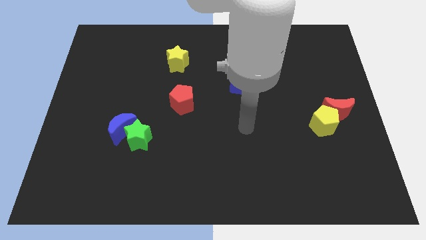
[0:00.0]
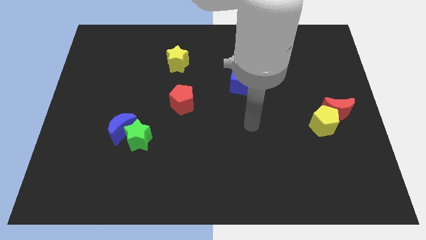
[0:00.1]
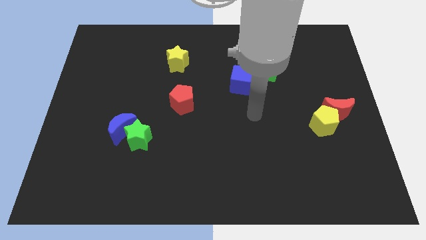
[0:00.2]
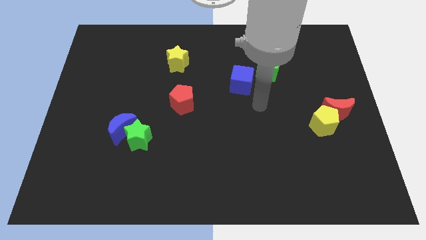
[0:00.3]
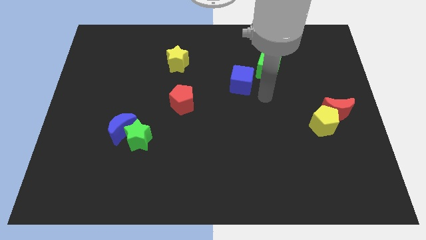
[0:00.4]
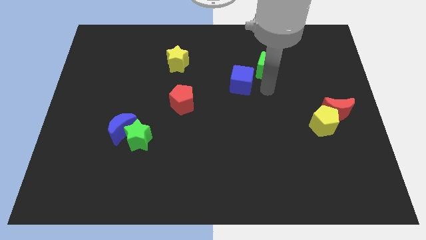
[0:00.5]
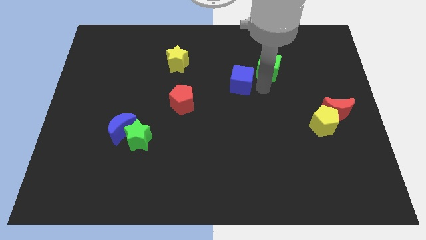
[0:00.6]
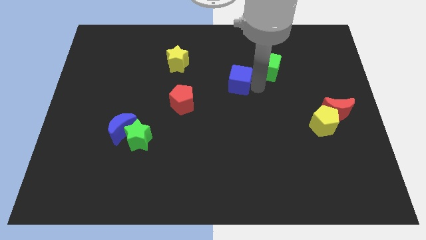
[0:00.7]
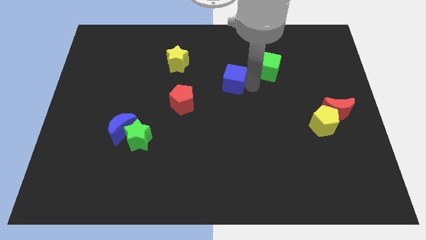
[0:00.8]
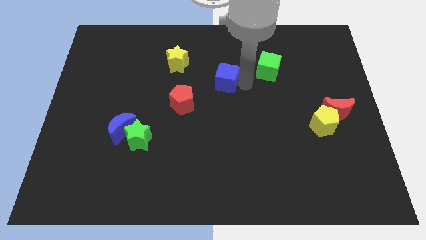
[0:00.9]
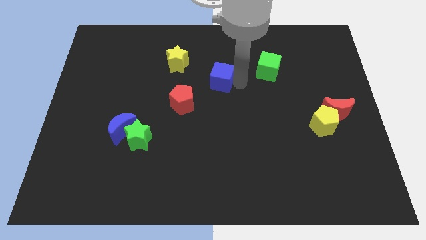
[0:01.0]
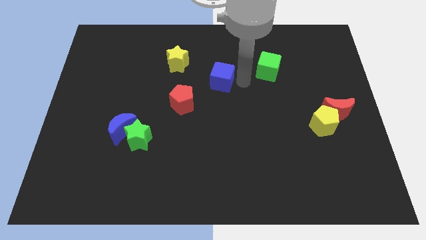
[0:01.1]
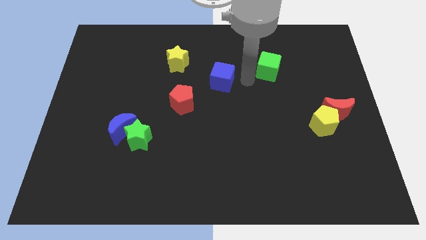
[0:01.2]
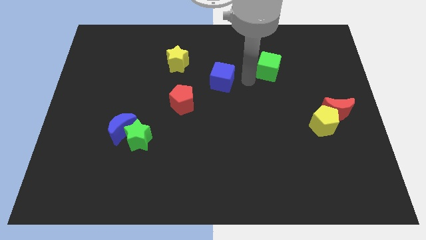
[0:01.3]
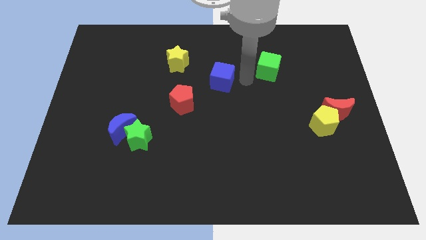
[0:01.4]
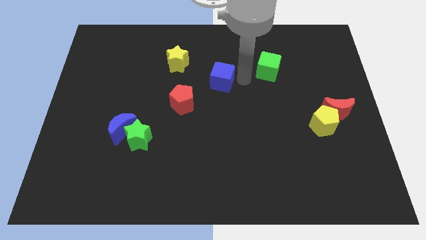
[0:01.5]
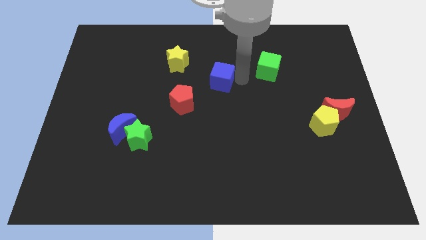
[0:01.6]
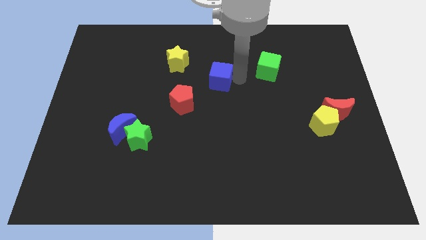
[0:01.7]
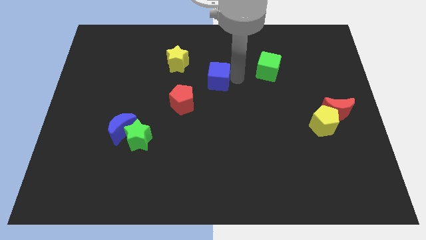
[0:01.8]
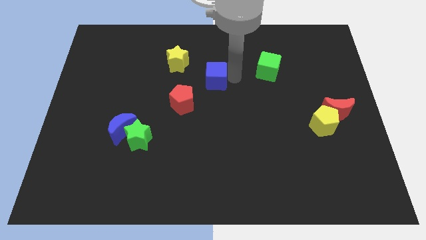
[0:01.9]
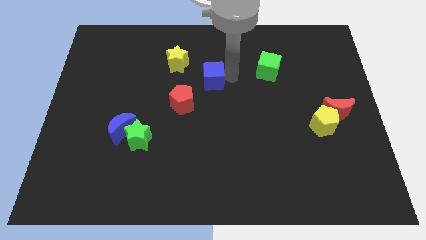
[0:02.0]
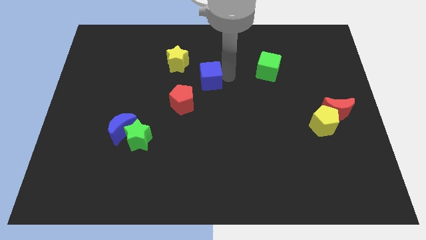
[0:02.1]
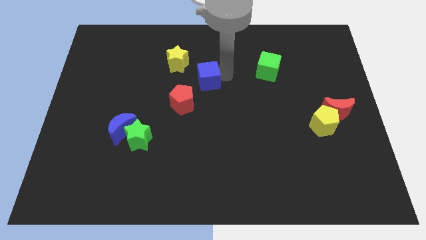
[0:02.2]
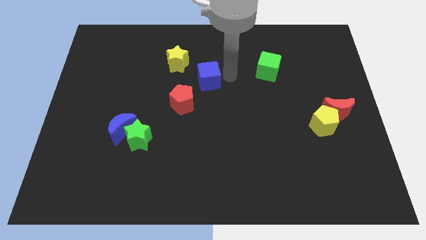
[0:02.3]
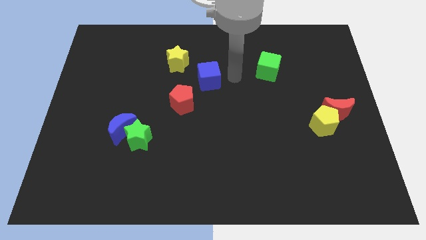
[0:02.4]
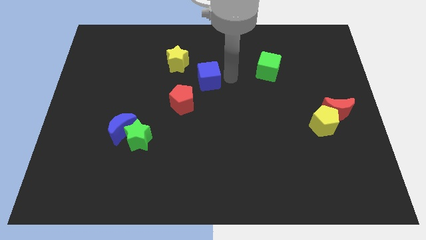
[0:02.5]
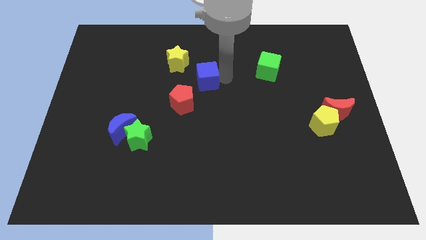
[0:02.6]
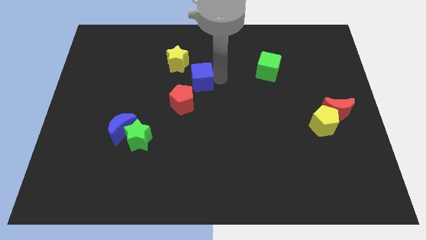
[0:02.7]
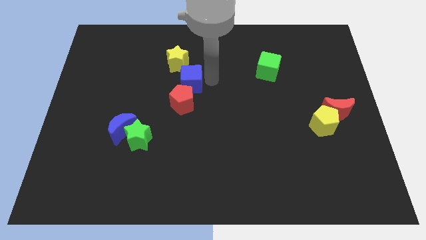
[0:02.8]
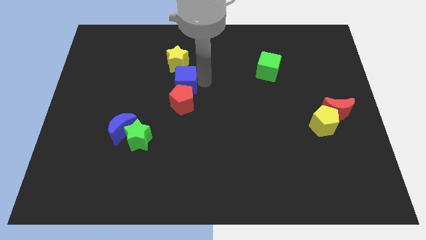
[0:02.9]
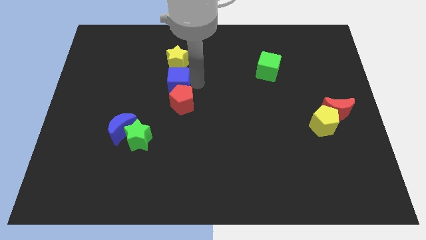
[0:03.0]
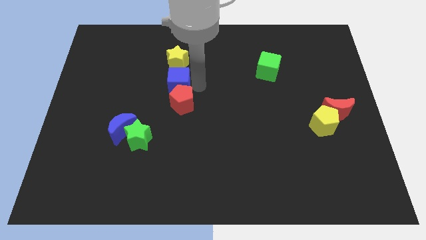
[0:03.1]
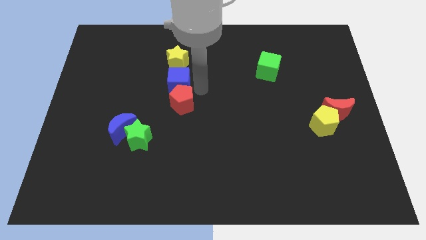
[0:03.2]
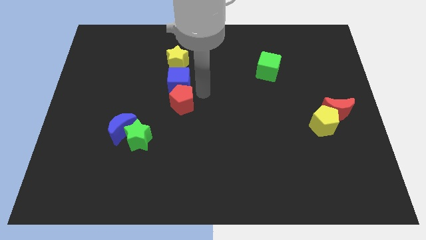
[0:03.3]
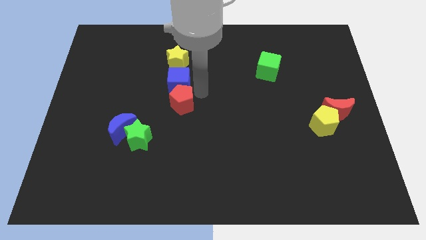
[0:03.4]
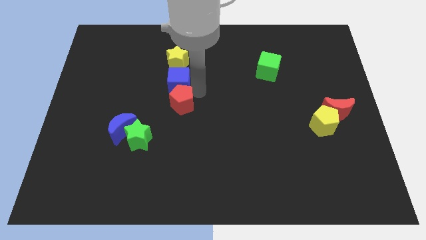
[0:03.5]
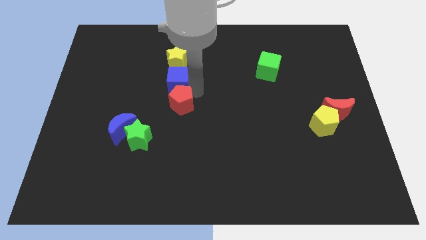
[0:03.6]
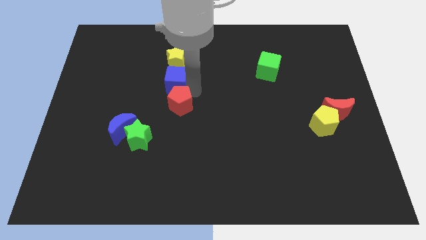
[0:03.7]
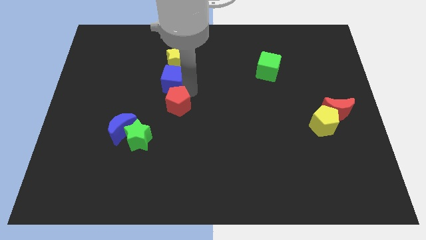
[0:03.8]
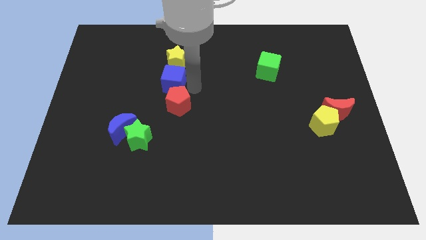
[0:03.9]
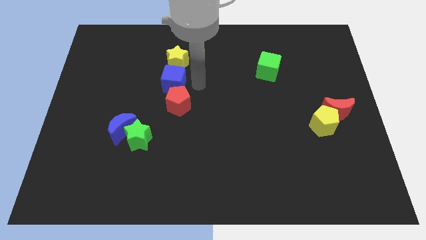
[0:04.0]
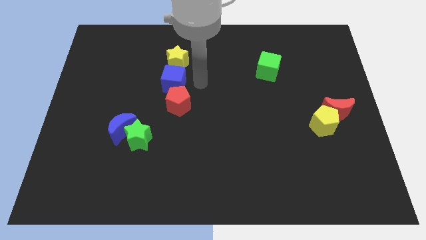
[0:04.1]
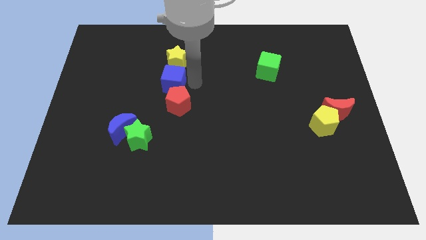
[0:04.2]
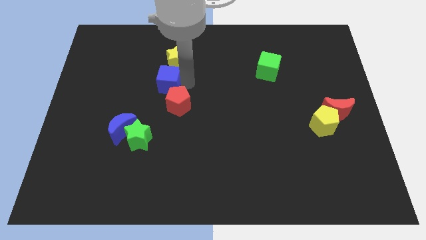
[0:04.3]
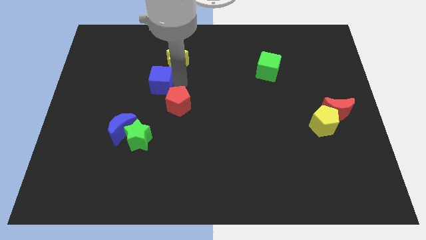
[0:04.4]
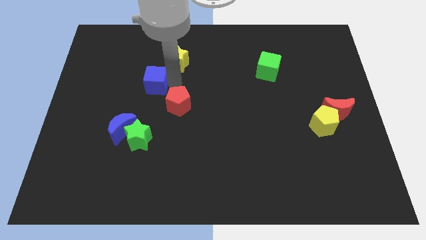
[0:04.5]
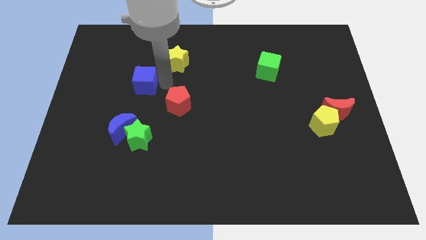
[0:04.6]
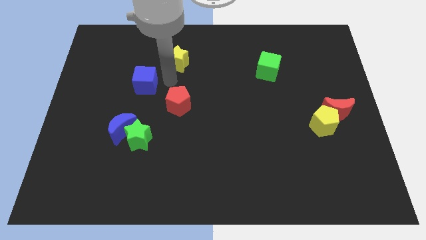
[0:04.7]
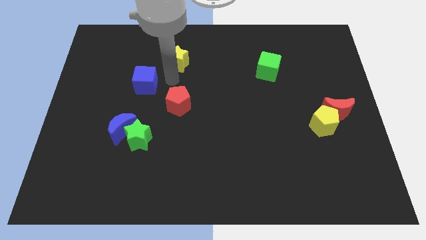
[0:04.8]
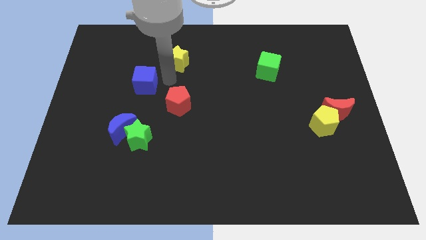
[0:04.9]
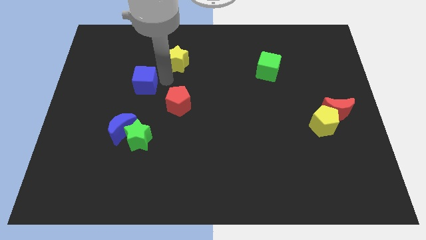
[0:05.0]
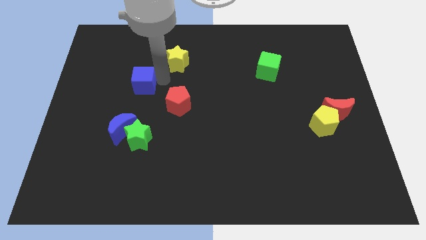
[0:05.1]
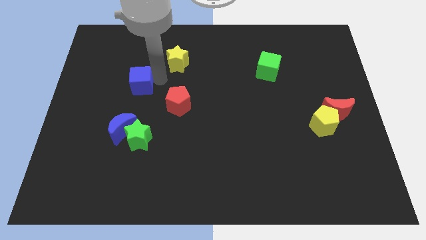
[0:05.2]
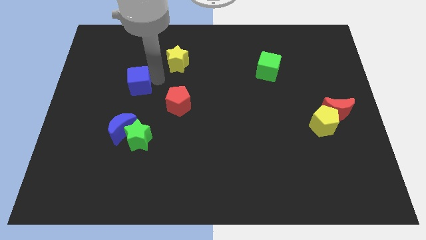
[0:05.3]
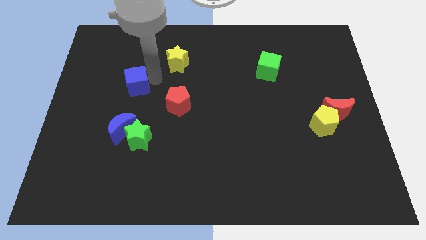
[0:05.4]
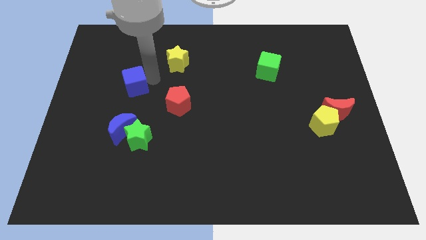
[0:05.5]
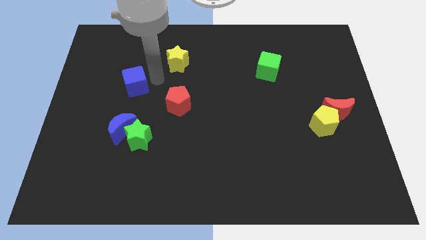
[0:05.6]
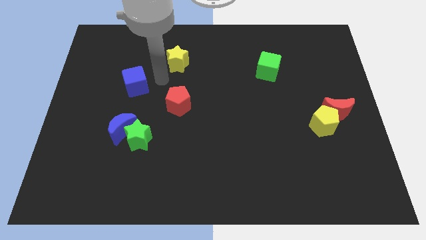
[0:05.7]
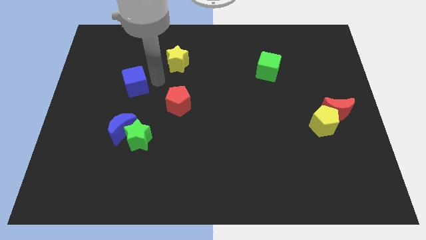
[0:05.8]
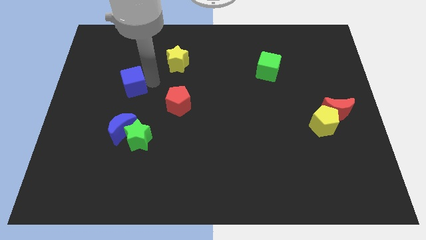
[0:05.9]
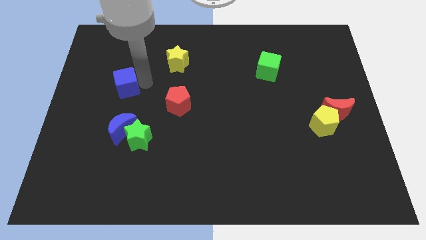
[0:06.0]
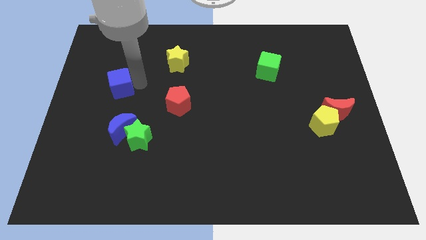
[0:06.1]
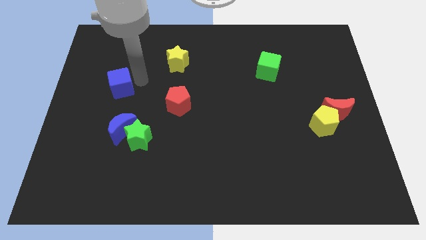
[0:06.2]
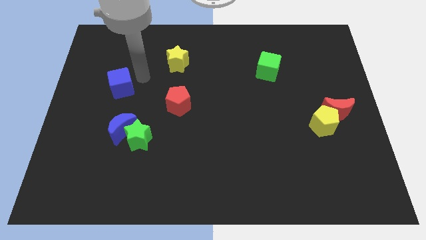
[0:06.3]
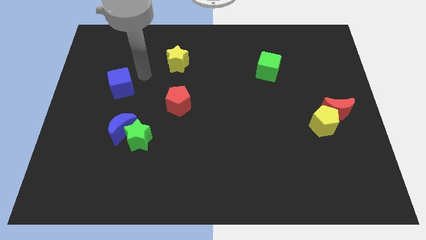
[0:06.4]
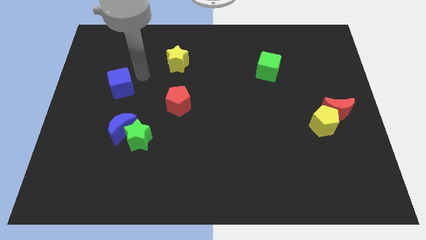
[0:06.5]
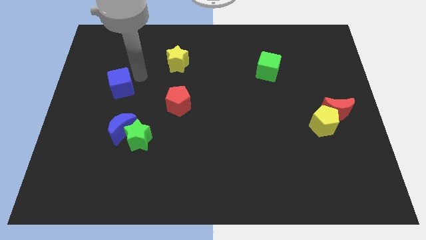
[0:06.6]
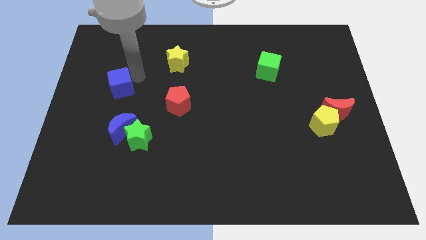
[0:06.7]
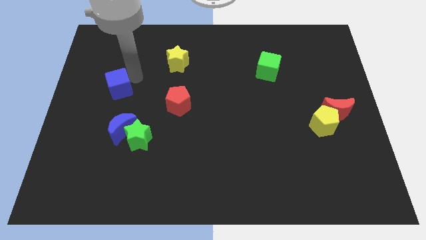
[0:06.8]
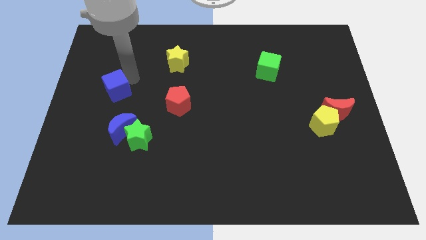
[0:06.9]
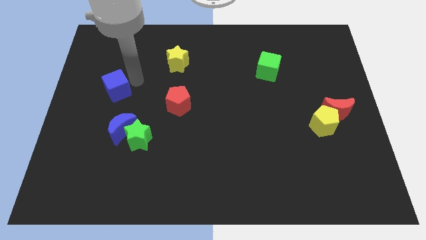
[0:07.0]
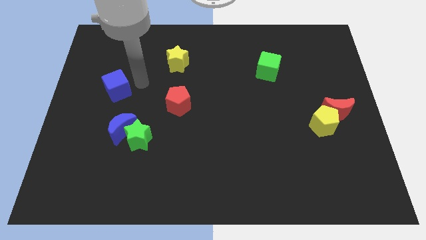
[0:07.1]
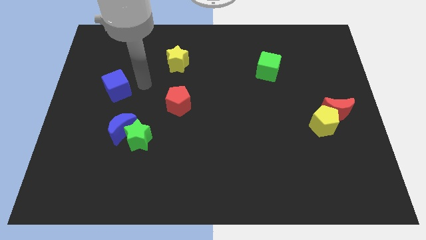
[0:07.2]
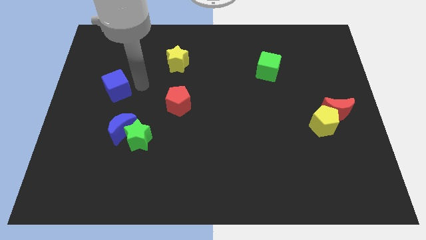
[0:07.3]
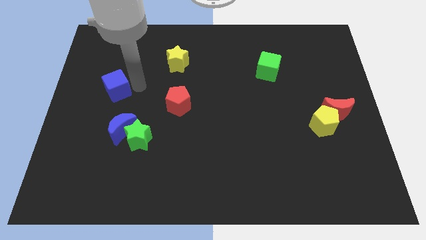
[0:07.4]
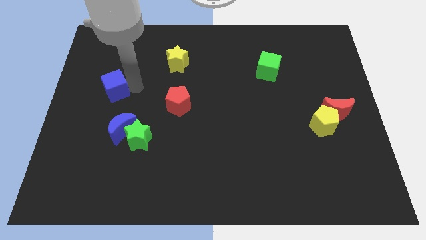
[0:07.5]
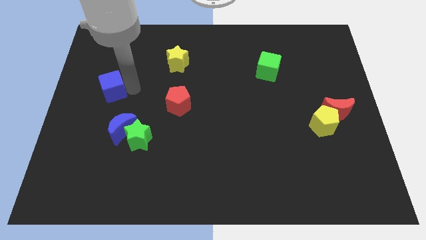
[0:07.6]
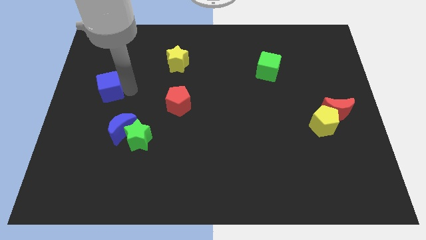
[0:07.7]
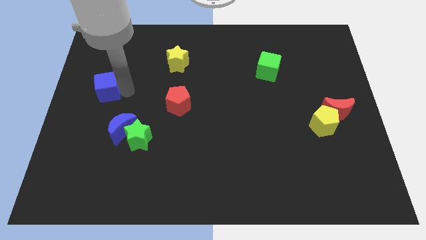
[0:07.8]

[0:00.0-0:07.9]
push the blue cube to the left side

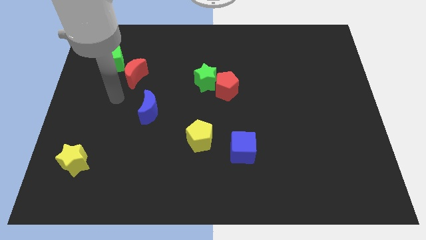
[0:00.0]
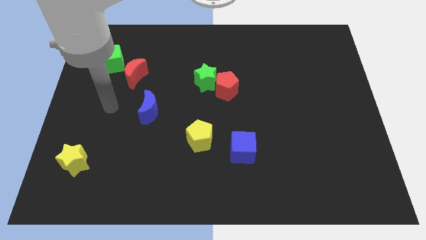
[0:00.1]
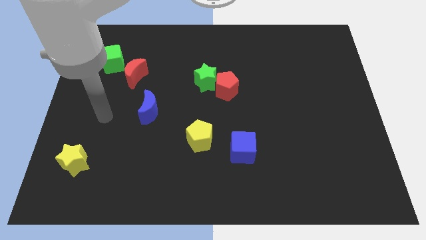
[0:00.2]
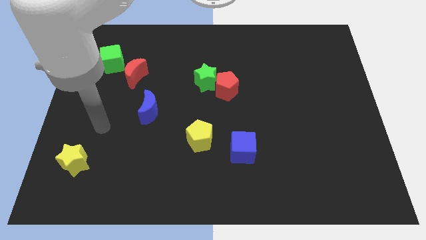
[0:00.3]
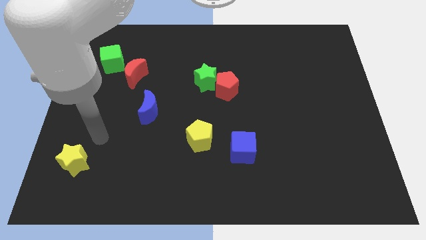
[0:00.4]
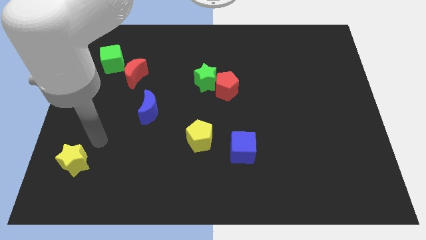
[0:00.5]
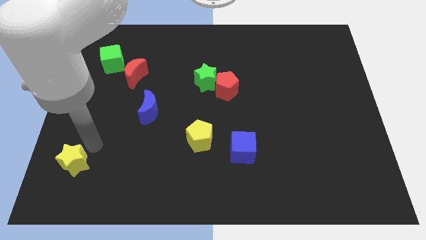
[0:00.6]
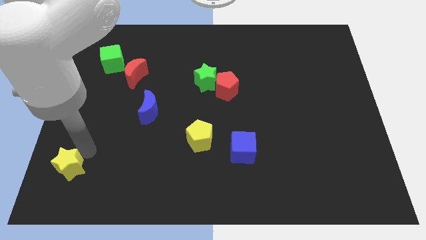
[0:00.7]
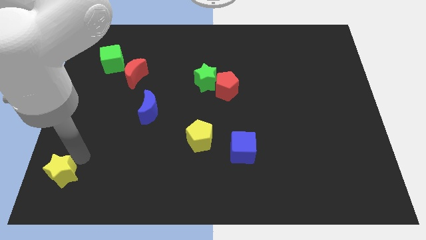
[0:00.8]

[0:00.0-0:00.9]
push the yellow star to the bottom left
